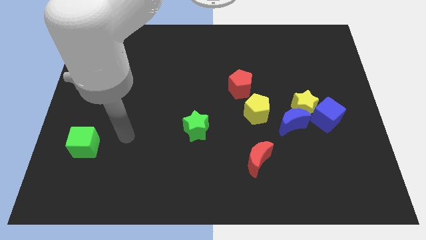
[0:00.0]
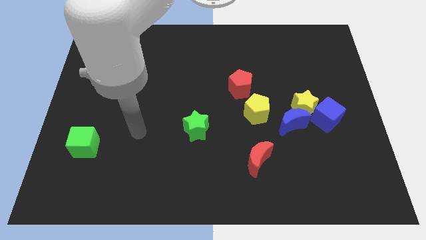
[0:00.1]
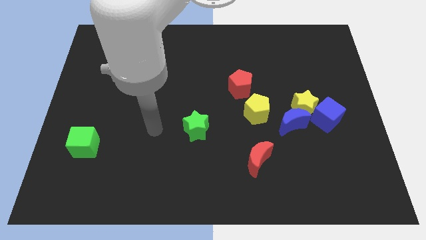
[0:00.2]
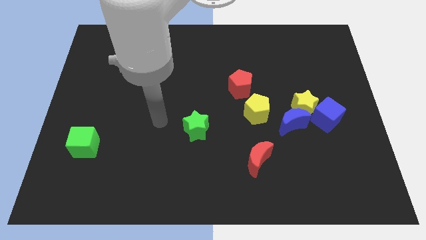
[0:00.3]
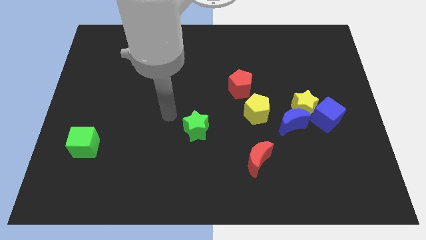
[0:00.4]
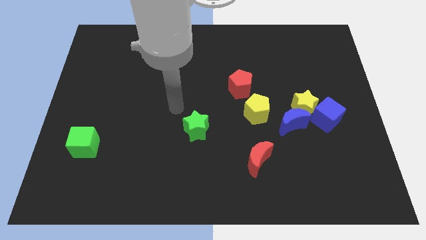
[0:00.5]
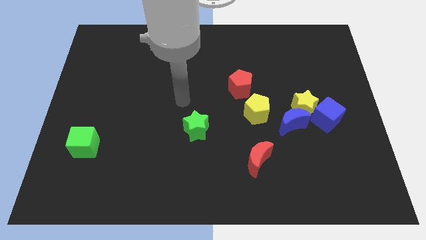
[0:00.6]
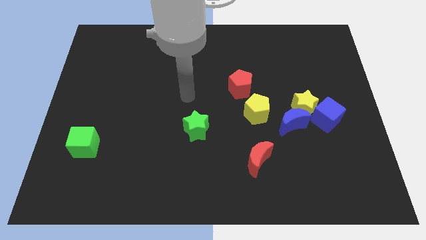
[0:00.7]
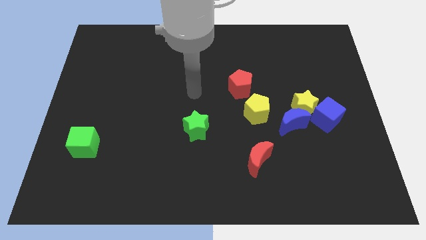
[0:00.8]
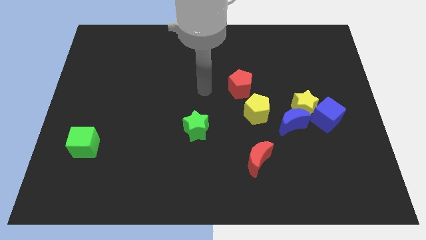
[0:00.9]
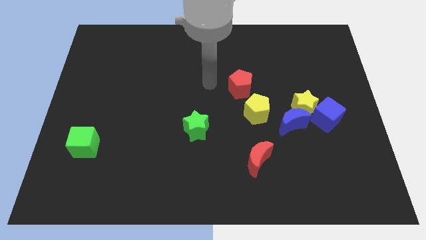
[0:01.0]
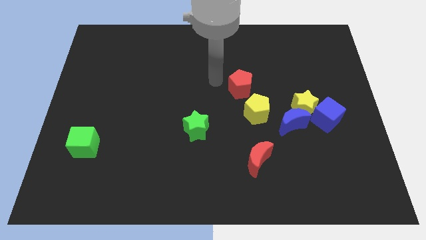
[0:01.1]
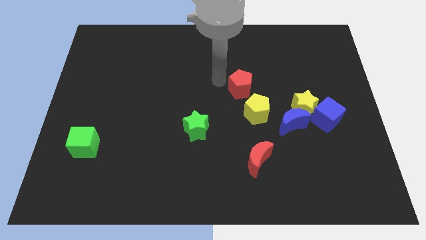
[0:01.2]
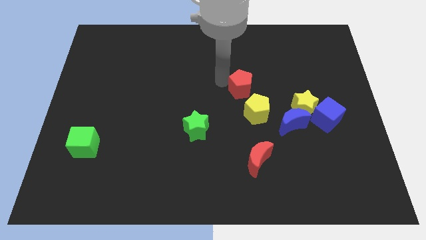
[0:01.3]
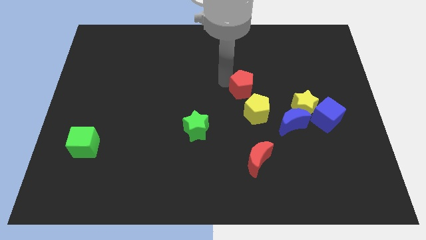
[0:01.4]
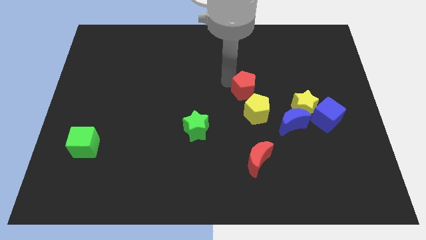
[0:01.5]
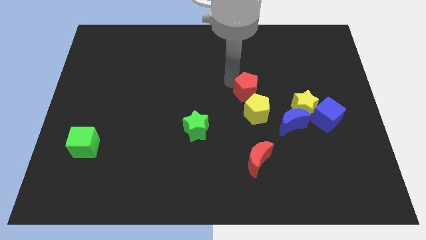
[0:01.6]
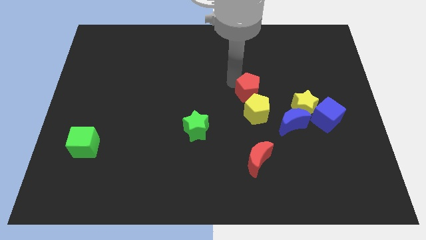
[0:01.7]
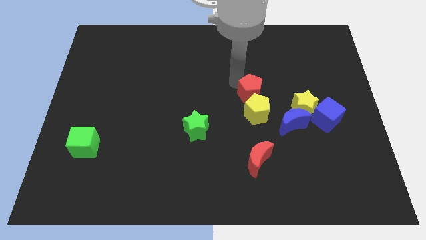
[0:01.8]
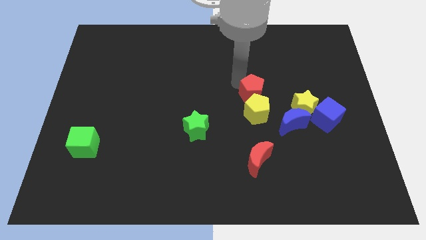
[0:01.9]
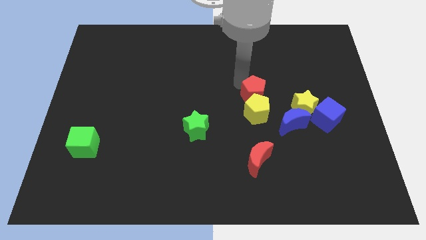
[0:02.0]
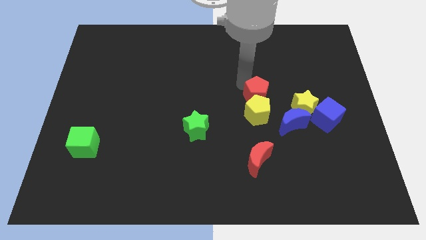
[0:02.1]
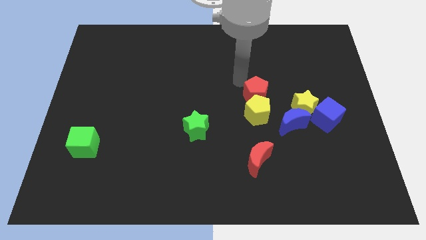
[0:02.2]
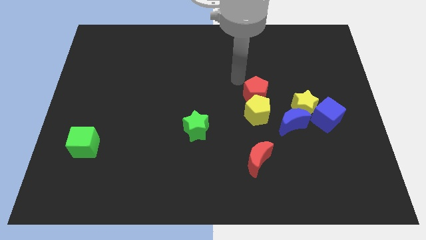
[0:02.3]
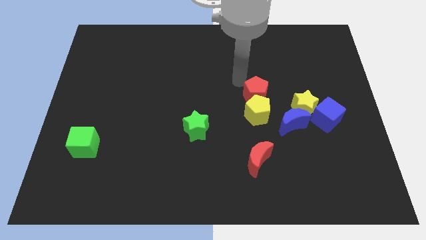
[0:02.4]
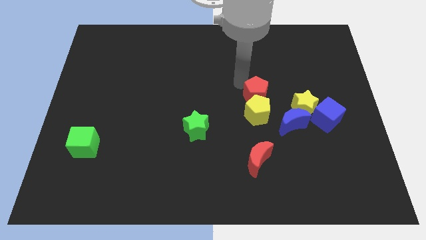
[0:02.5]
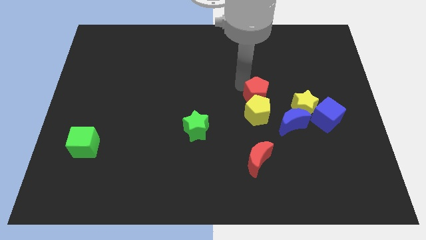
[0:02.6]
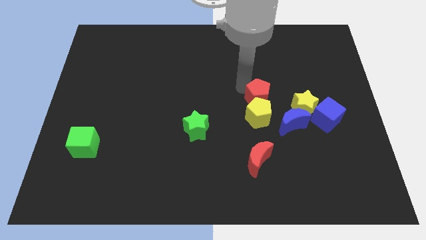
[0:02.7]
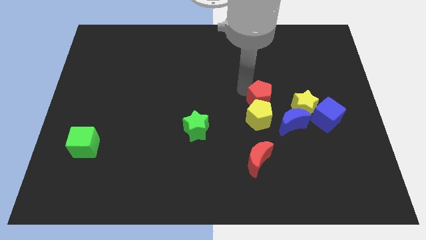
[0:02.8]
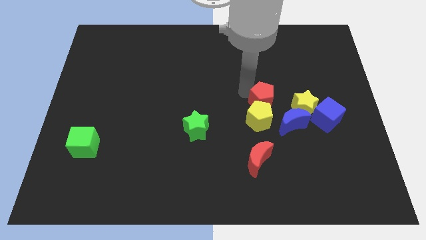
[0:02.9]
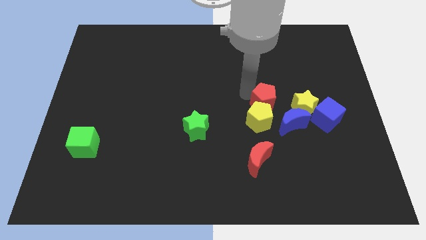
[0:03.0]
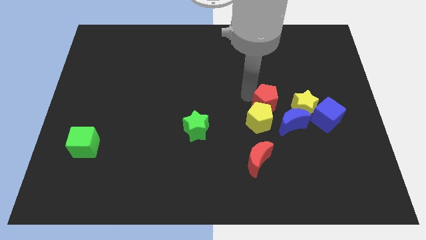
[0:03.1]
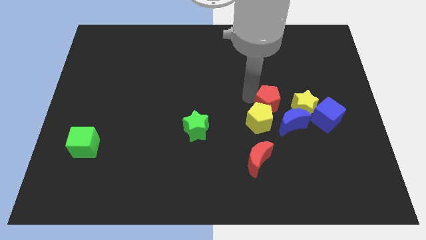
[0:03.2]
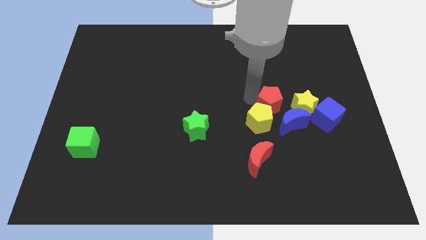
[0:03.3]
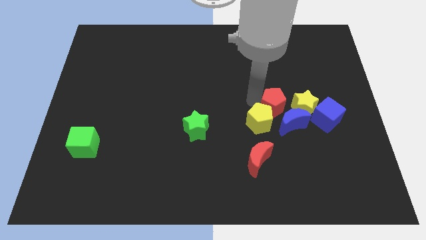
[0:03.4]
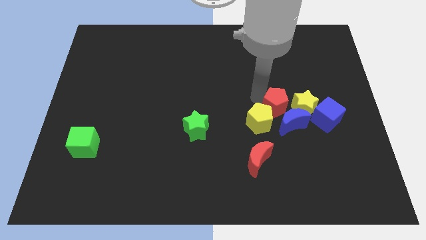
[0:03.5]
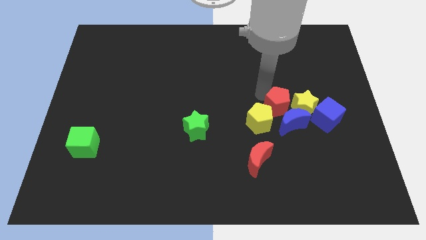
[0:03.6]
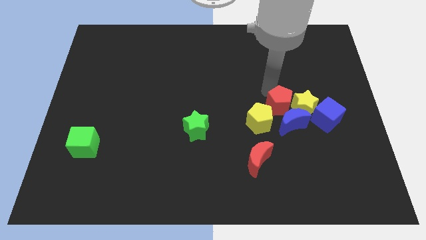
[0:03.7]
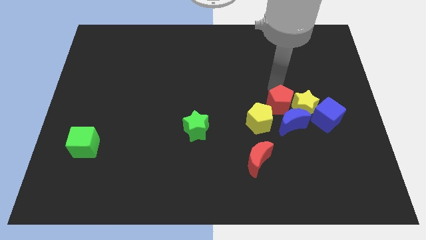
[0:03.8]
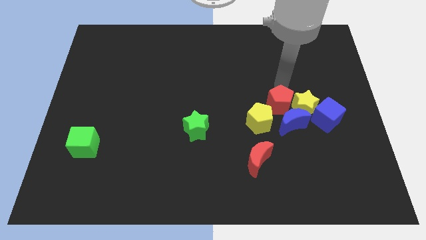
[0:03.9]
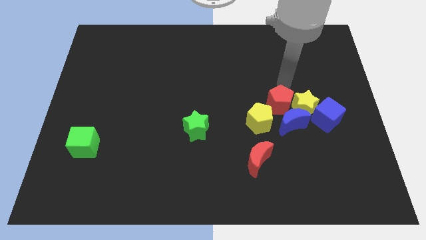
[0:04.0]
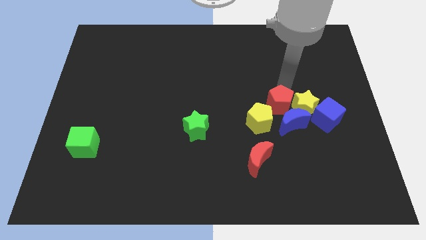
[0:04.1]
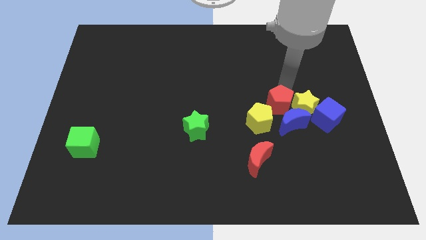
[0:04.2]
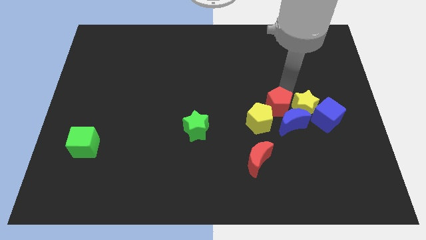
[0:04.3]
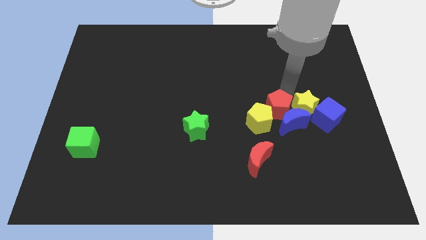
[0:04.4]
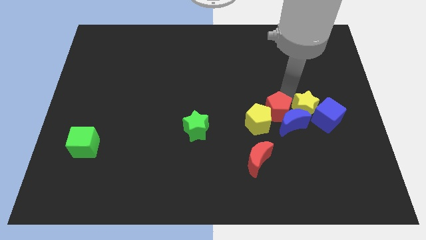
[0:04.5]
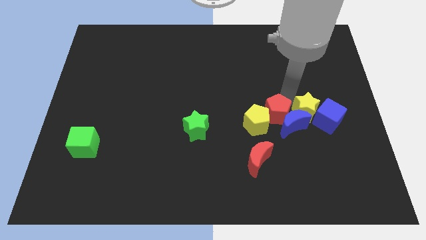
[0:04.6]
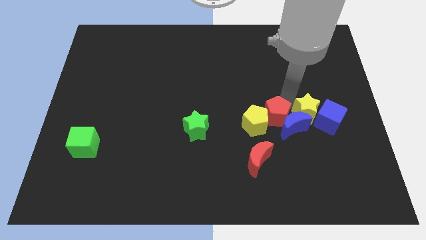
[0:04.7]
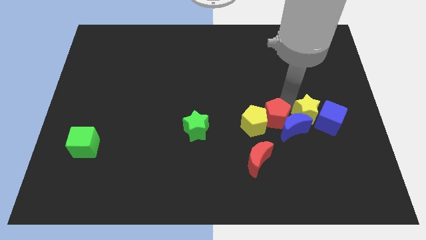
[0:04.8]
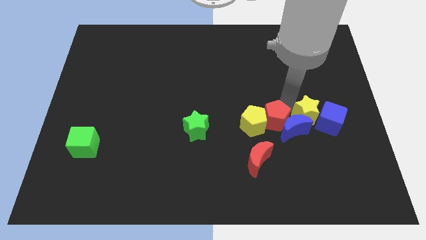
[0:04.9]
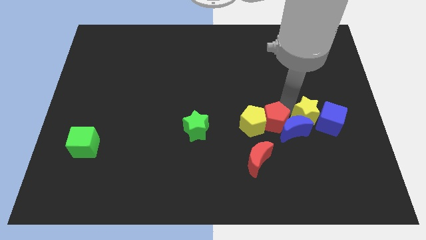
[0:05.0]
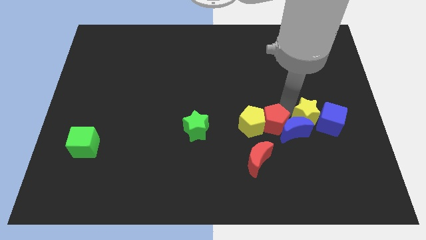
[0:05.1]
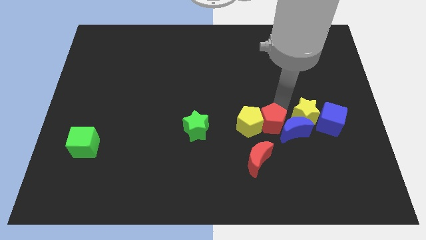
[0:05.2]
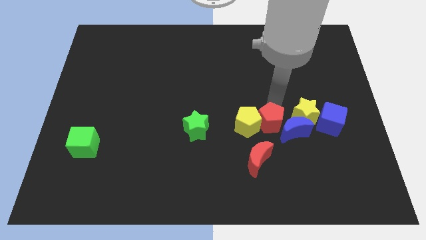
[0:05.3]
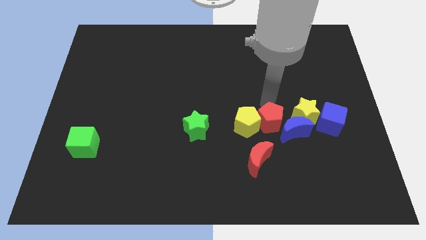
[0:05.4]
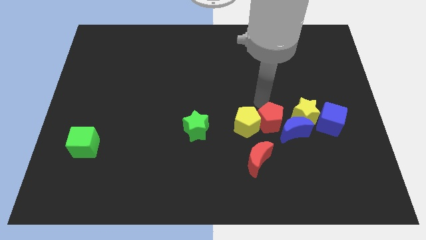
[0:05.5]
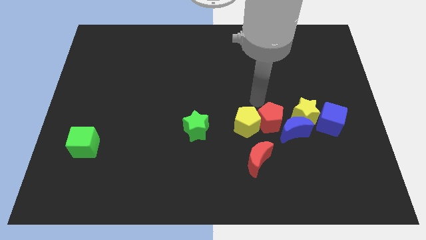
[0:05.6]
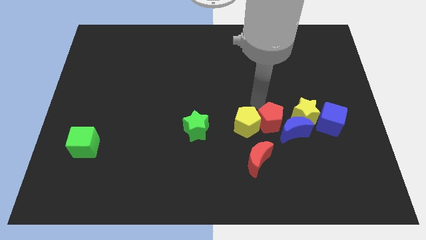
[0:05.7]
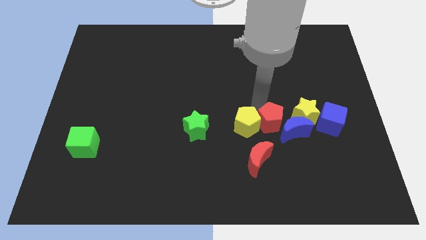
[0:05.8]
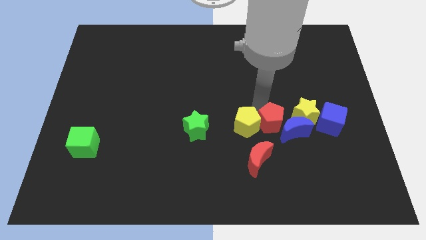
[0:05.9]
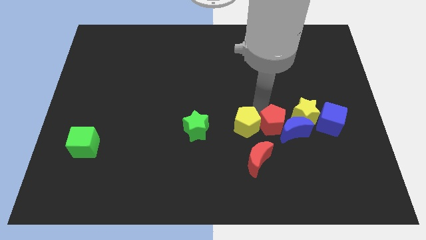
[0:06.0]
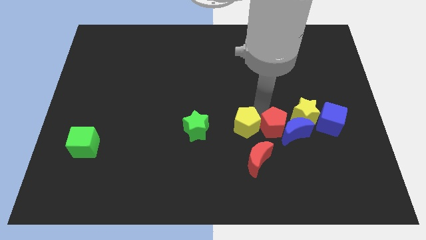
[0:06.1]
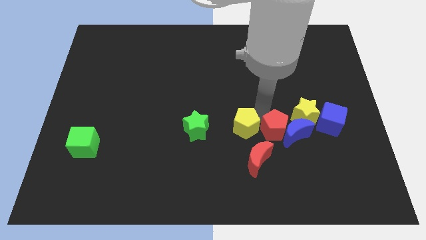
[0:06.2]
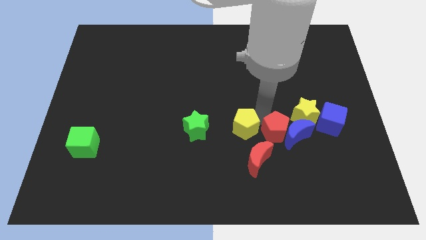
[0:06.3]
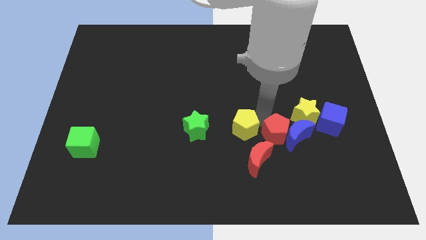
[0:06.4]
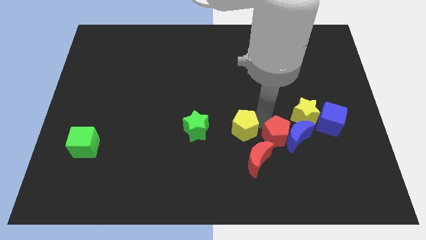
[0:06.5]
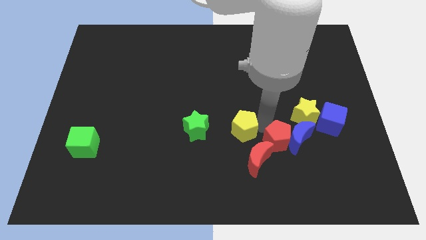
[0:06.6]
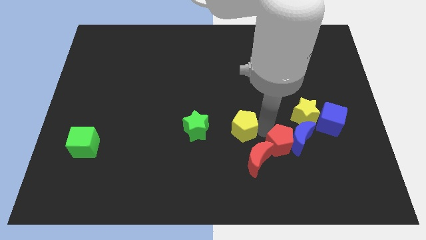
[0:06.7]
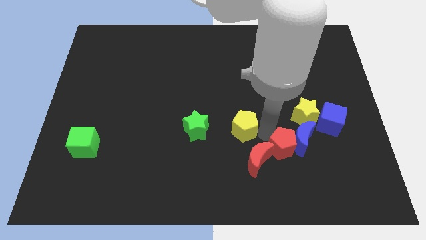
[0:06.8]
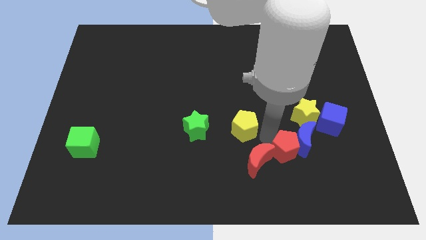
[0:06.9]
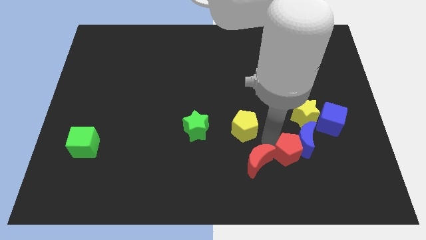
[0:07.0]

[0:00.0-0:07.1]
slide the red pentagon to the bottom of the blue moon
